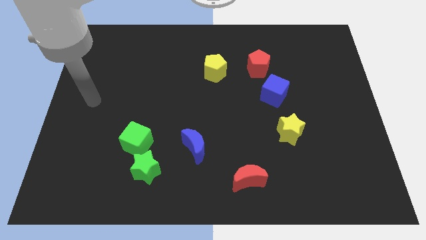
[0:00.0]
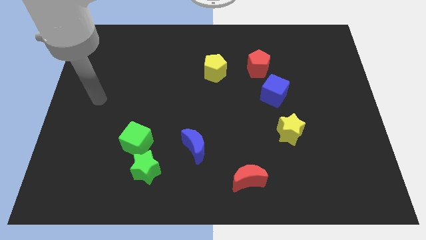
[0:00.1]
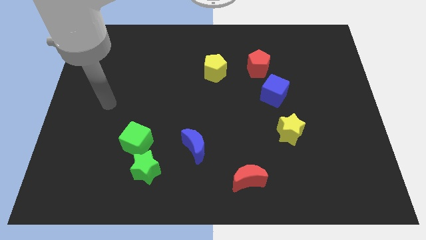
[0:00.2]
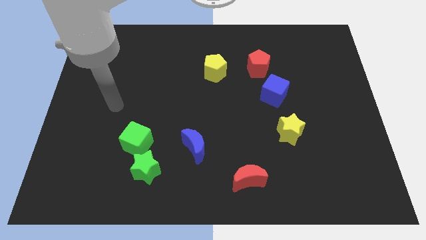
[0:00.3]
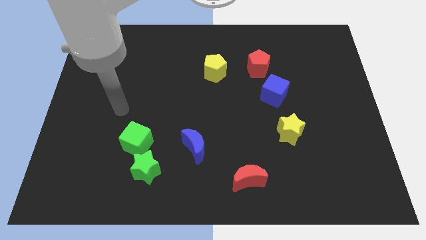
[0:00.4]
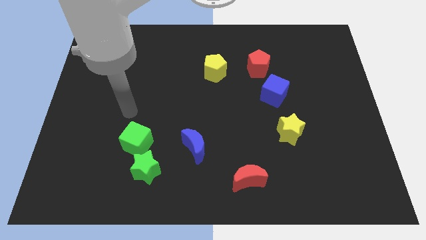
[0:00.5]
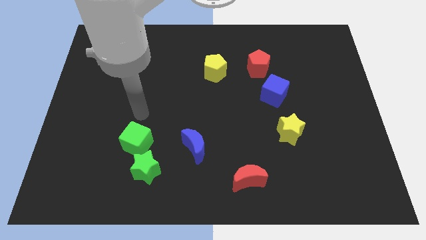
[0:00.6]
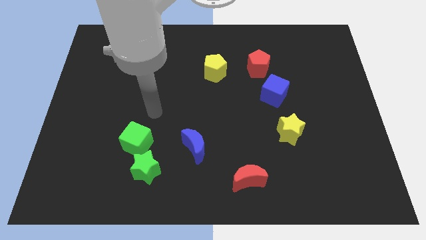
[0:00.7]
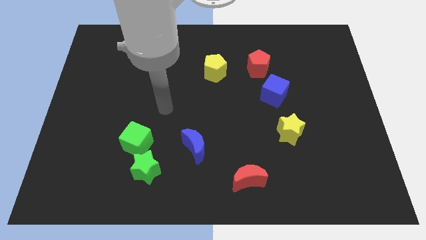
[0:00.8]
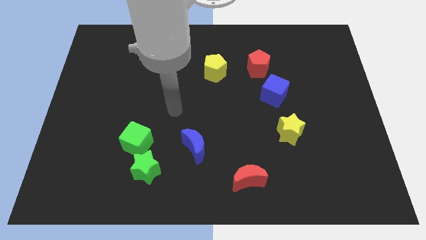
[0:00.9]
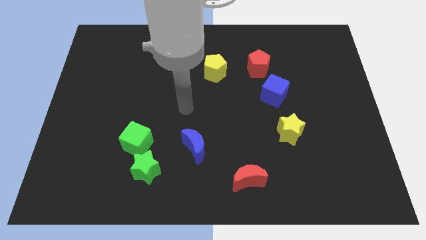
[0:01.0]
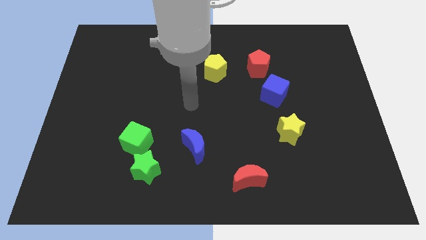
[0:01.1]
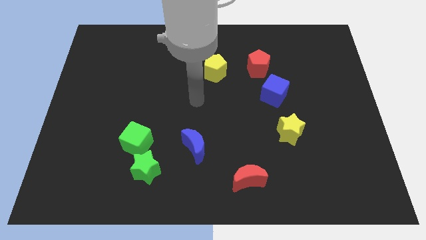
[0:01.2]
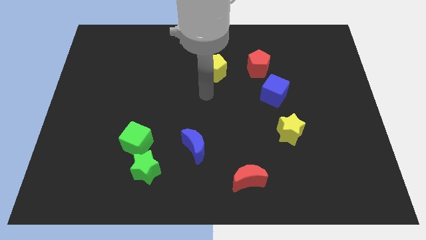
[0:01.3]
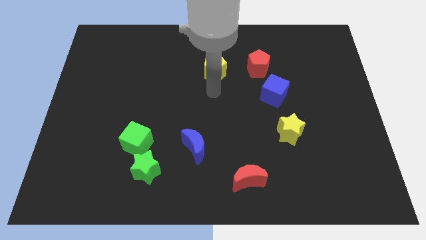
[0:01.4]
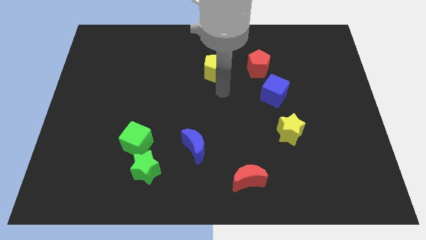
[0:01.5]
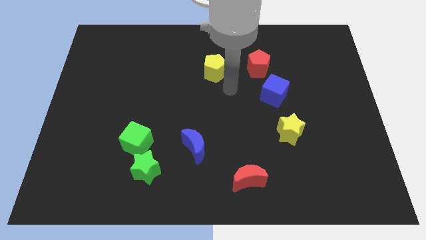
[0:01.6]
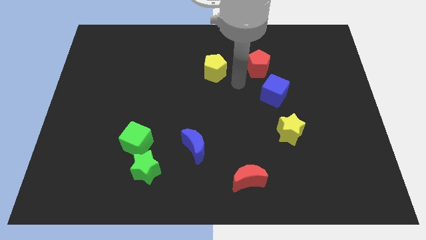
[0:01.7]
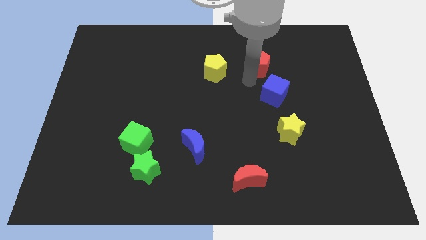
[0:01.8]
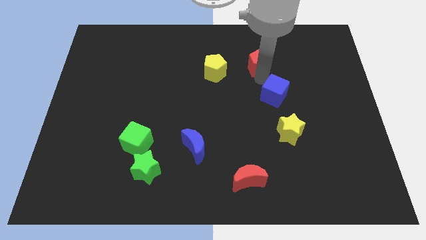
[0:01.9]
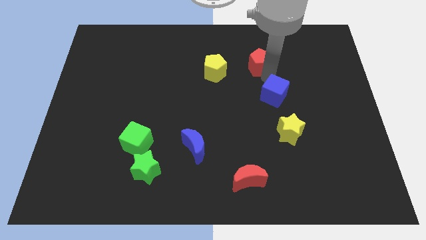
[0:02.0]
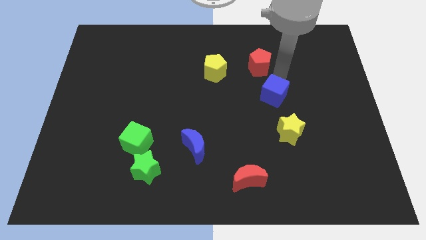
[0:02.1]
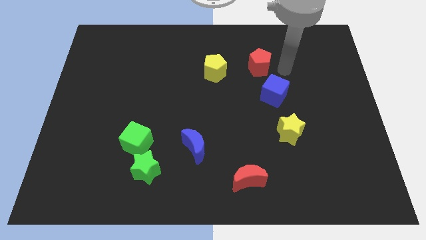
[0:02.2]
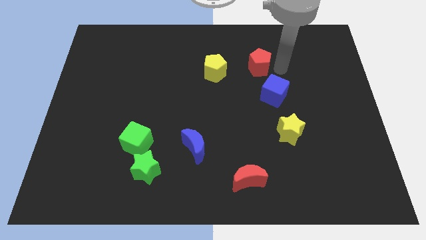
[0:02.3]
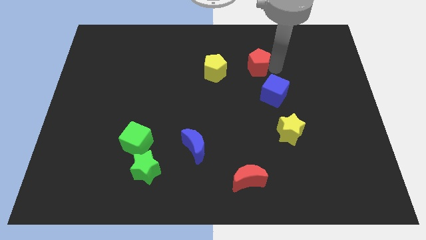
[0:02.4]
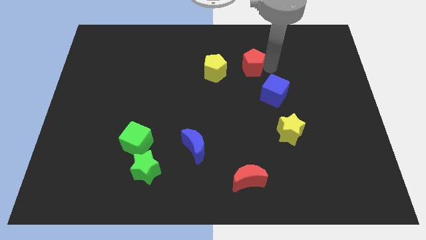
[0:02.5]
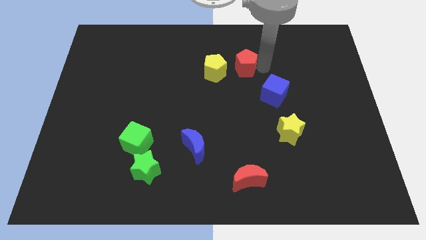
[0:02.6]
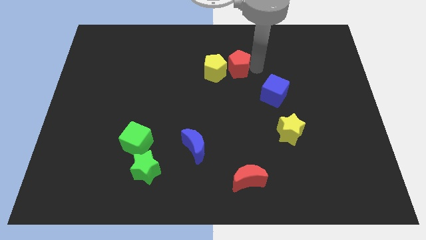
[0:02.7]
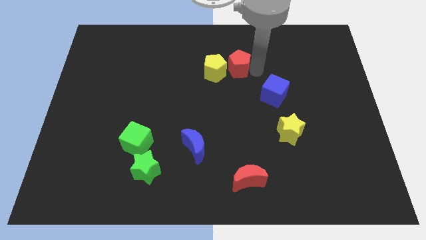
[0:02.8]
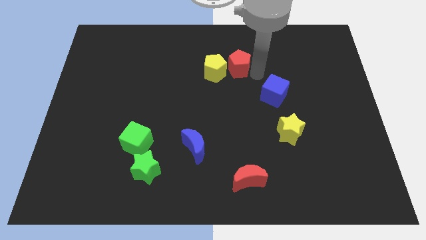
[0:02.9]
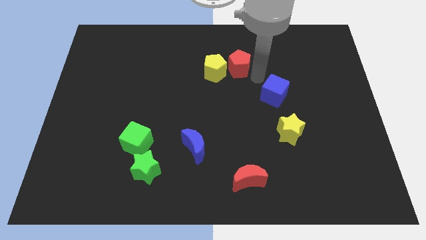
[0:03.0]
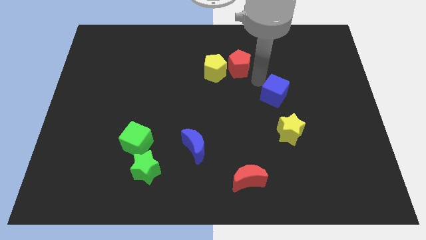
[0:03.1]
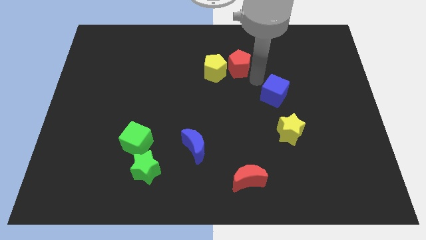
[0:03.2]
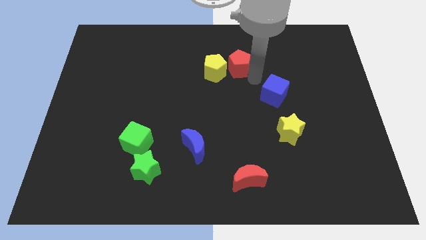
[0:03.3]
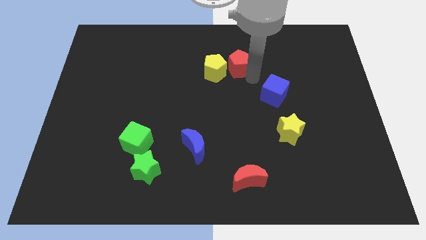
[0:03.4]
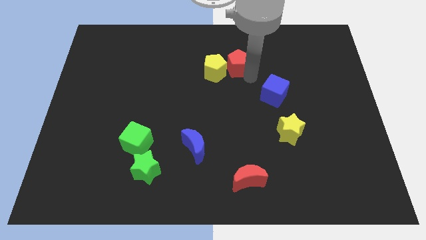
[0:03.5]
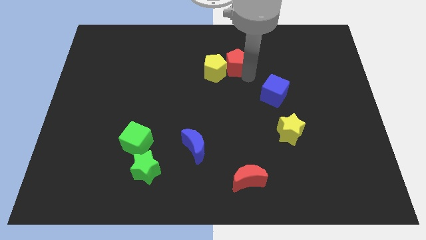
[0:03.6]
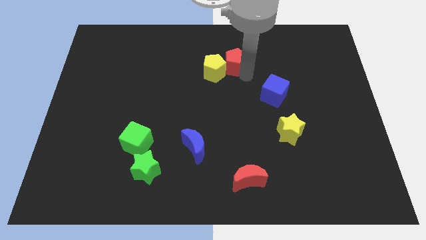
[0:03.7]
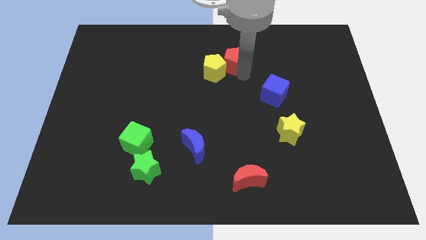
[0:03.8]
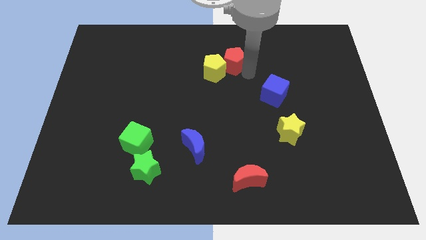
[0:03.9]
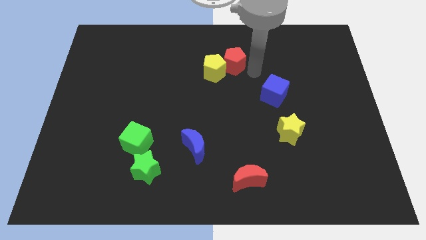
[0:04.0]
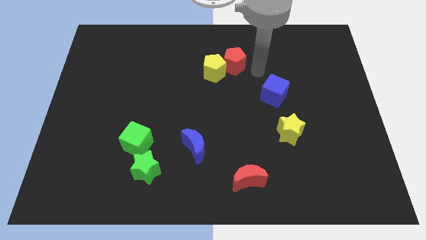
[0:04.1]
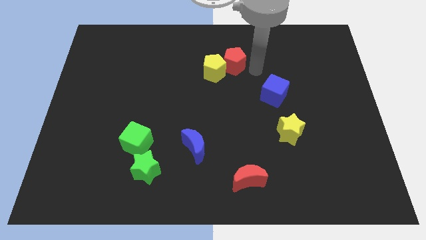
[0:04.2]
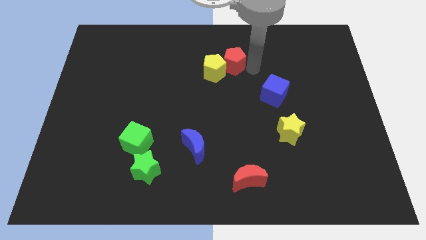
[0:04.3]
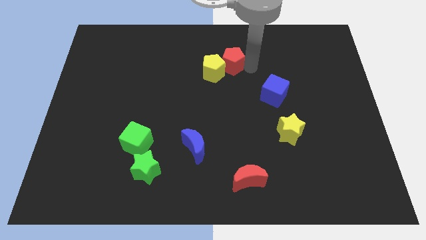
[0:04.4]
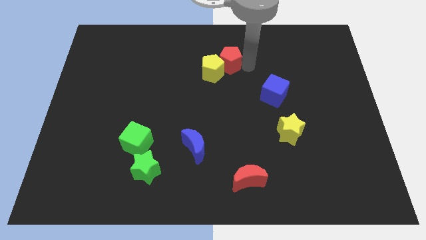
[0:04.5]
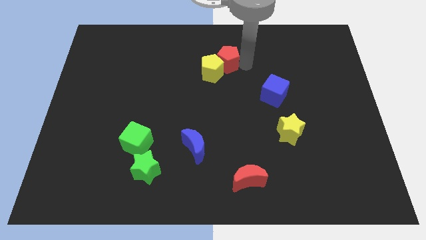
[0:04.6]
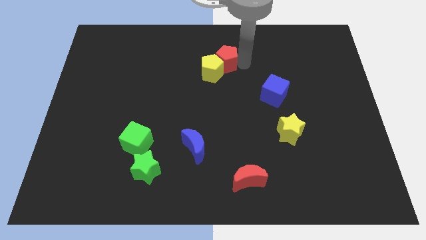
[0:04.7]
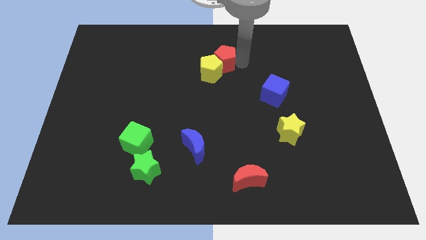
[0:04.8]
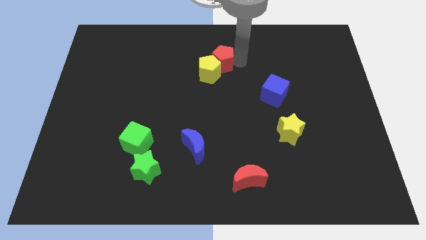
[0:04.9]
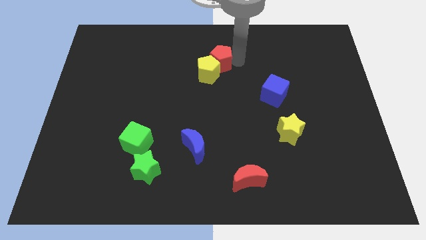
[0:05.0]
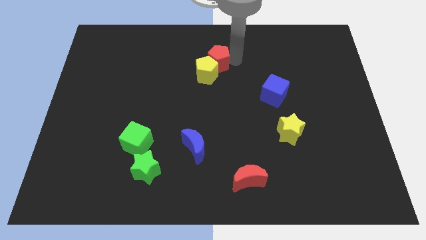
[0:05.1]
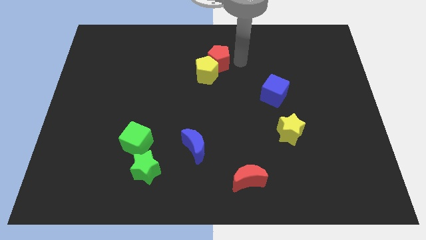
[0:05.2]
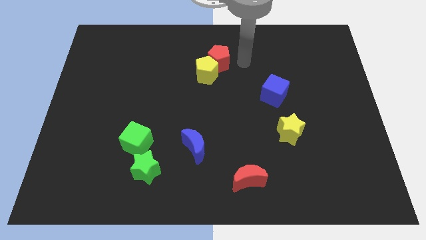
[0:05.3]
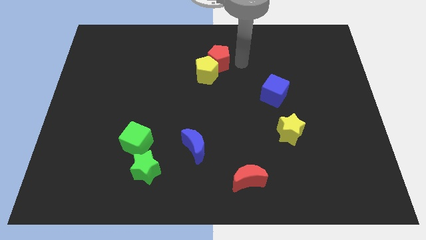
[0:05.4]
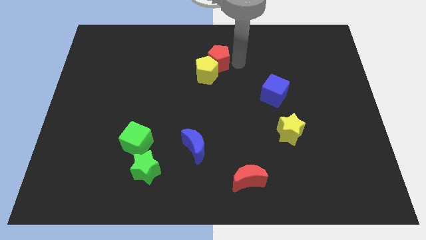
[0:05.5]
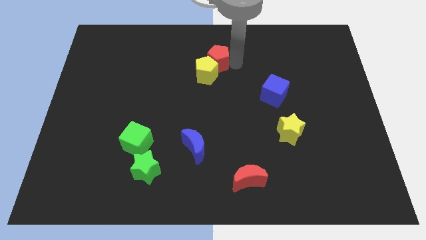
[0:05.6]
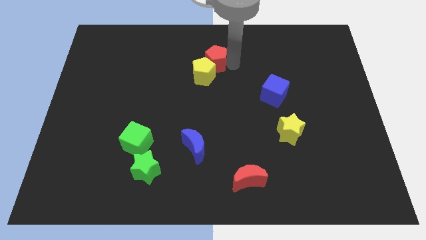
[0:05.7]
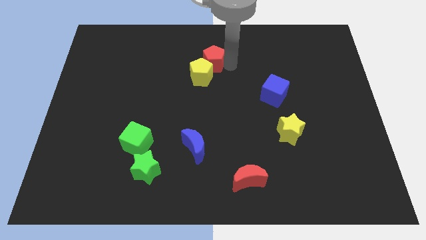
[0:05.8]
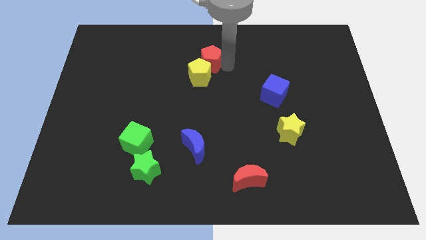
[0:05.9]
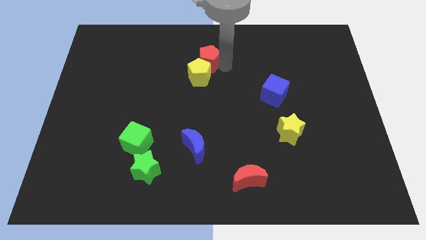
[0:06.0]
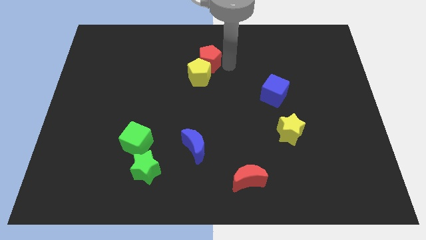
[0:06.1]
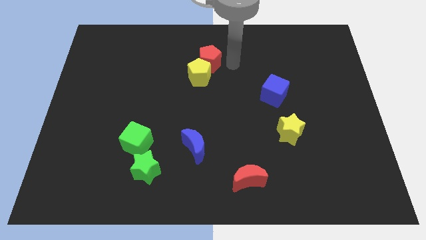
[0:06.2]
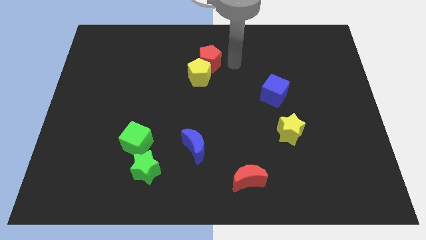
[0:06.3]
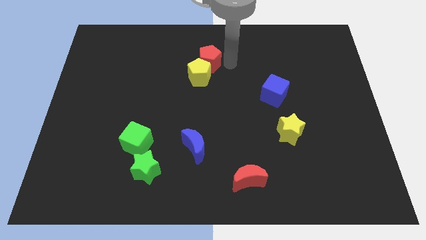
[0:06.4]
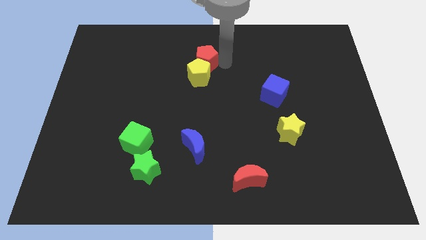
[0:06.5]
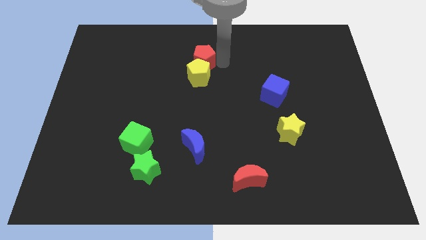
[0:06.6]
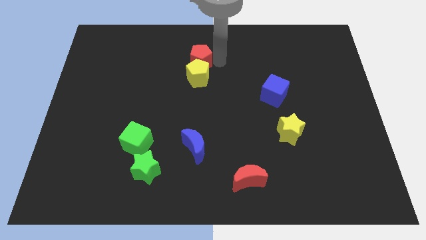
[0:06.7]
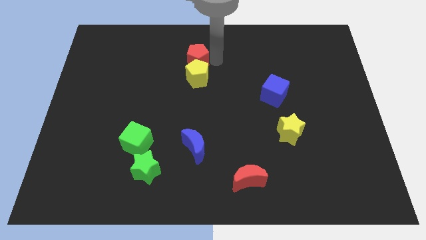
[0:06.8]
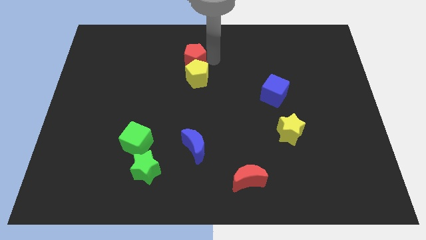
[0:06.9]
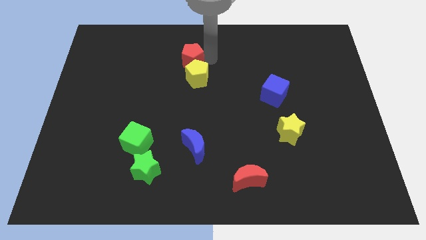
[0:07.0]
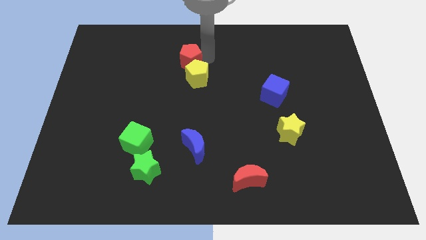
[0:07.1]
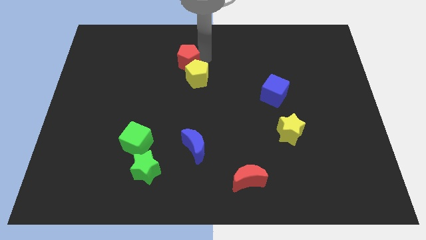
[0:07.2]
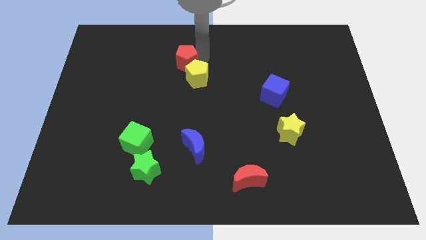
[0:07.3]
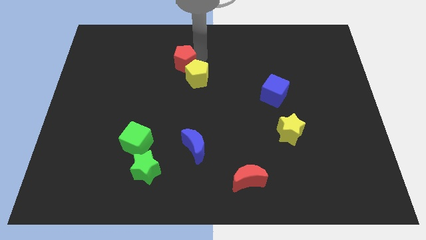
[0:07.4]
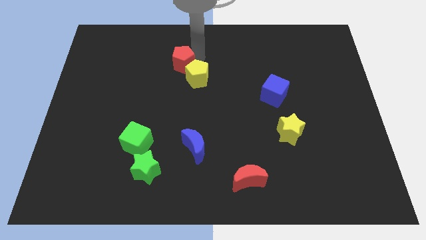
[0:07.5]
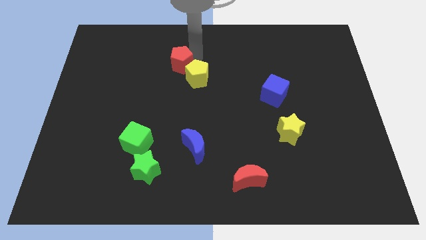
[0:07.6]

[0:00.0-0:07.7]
move the red pentagon left
